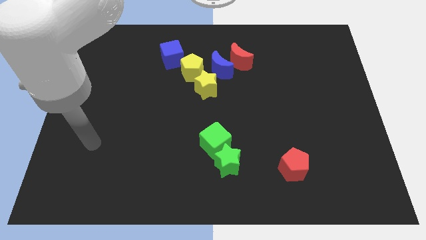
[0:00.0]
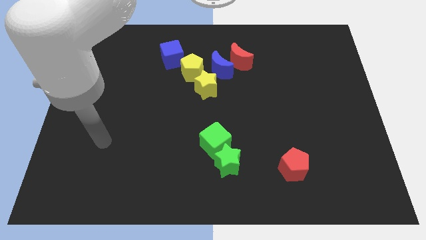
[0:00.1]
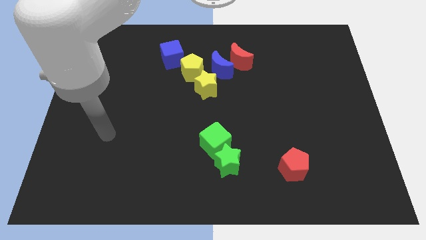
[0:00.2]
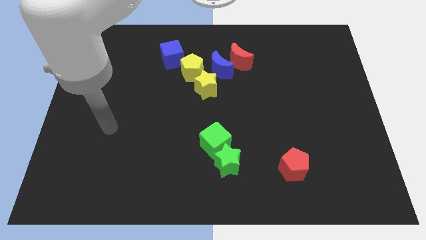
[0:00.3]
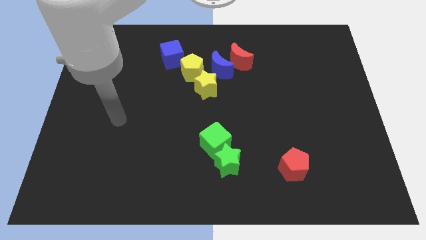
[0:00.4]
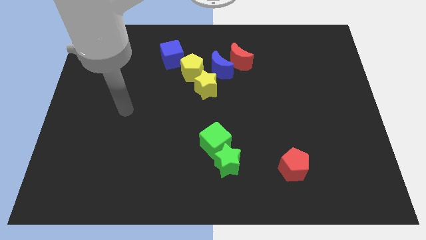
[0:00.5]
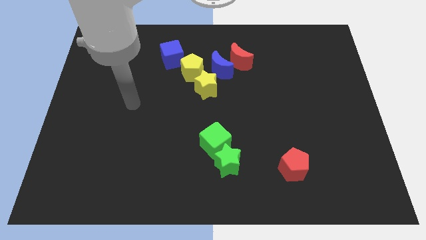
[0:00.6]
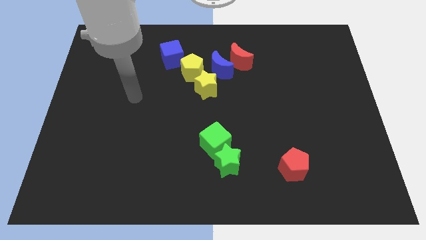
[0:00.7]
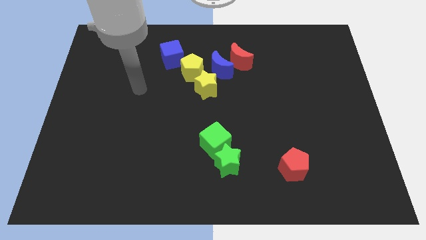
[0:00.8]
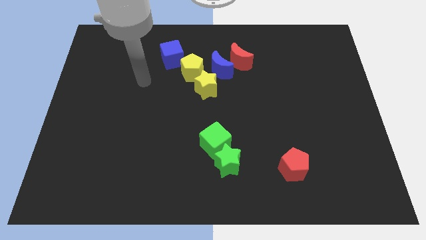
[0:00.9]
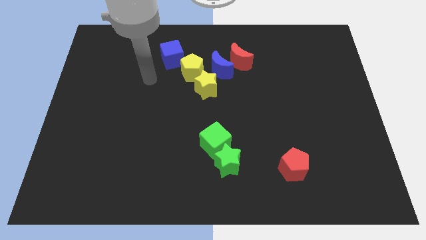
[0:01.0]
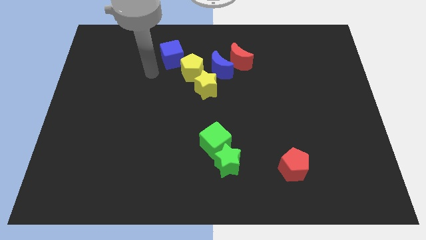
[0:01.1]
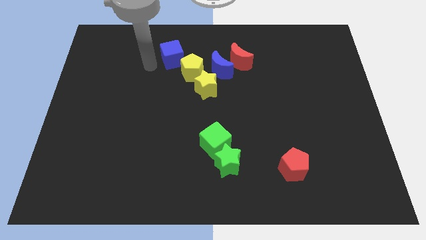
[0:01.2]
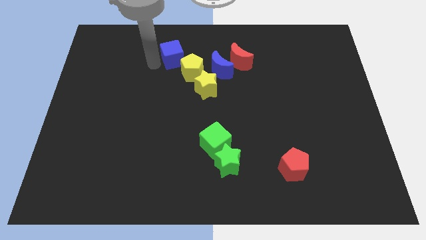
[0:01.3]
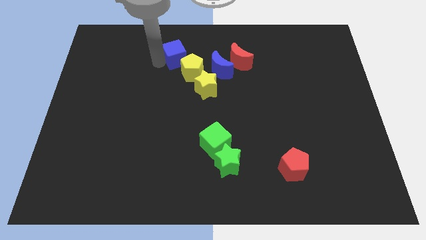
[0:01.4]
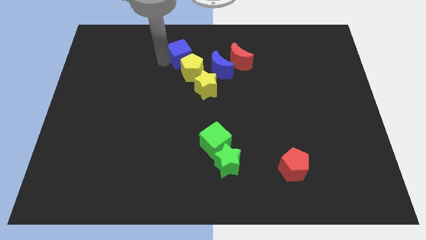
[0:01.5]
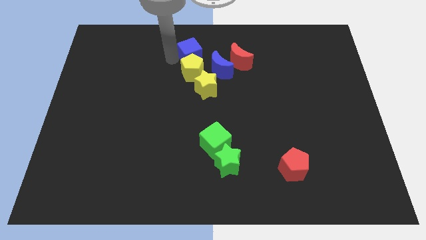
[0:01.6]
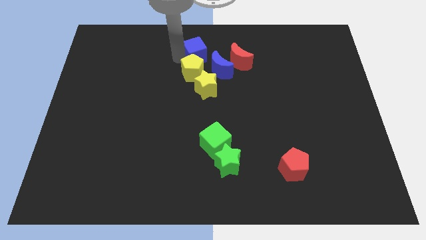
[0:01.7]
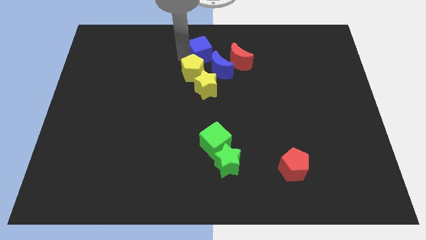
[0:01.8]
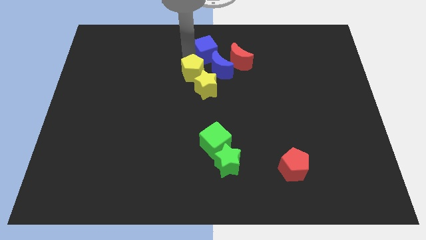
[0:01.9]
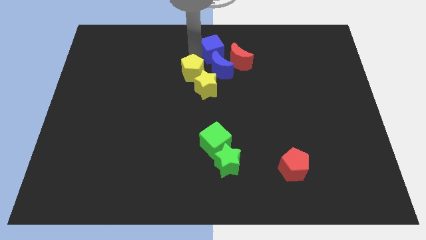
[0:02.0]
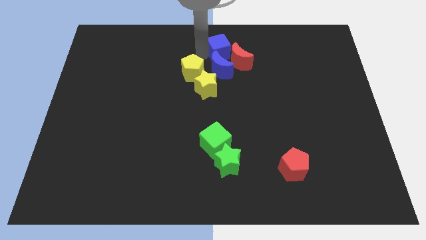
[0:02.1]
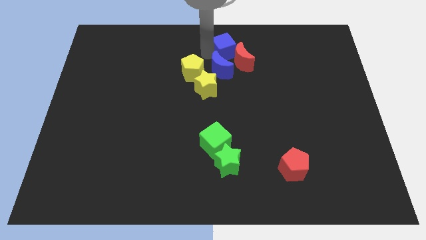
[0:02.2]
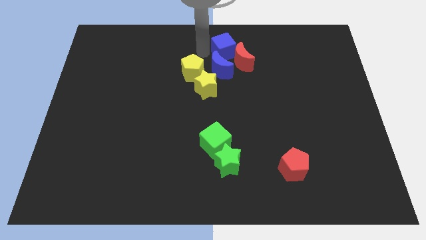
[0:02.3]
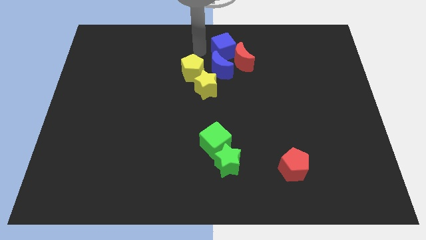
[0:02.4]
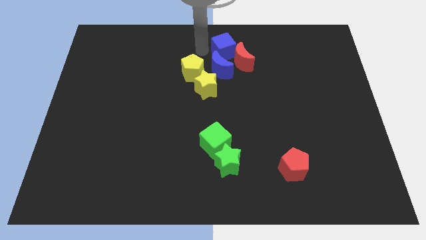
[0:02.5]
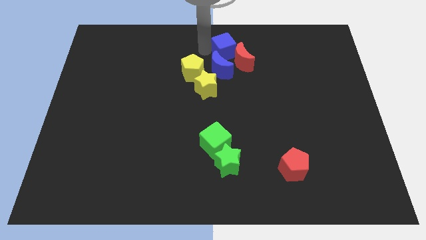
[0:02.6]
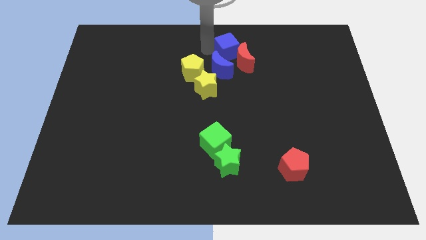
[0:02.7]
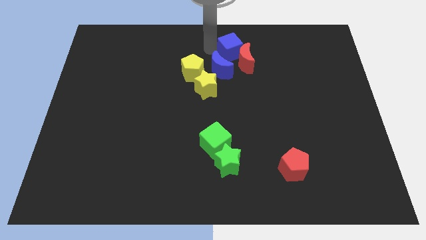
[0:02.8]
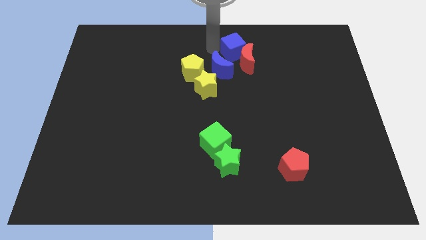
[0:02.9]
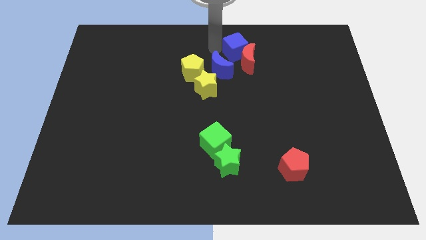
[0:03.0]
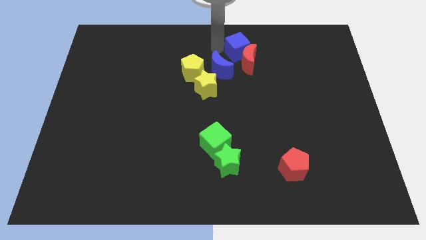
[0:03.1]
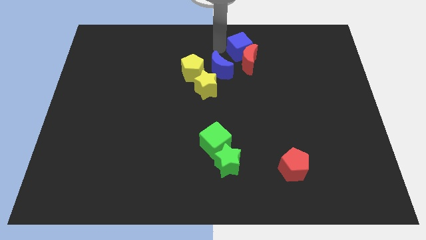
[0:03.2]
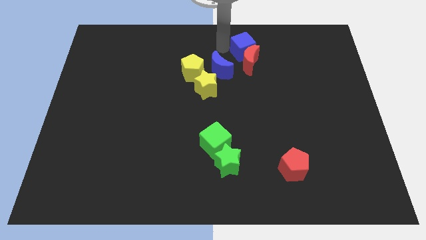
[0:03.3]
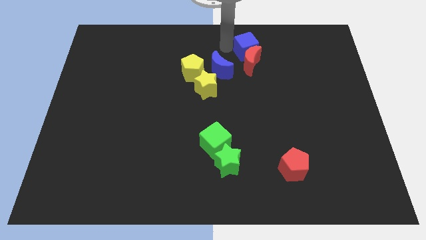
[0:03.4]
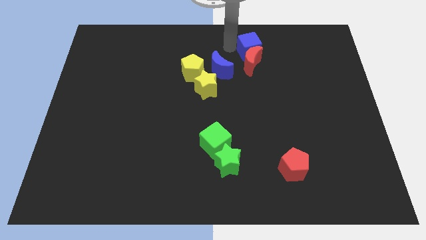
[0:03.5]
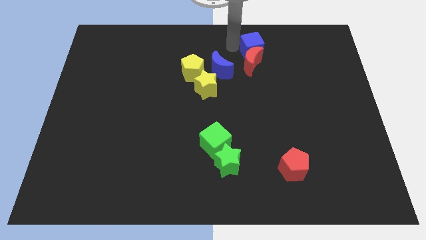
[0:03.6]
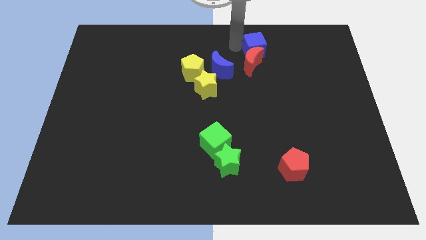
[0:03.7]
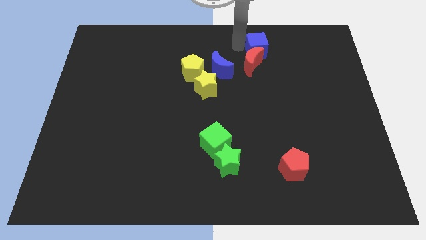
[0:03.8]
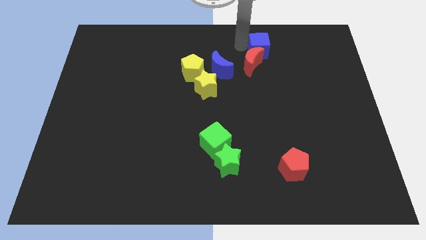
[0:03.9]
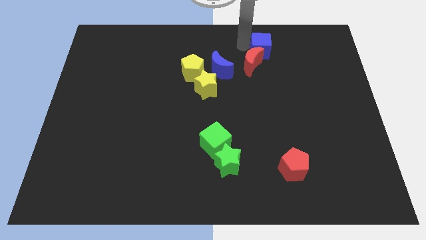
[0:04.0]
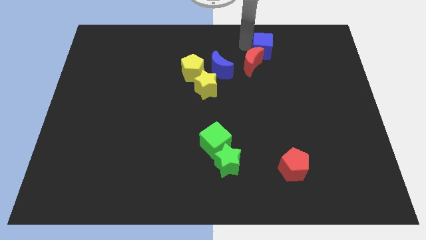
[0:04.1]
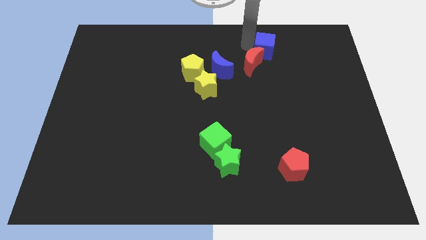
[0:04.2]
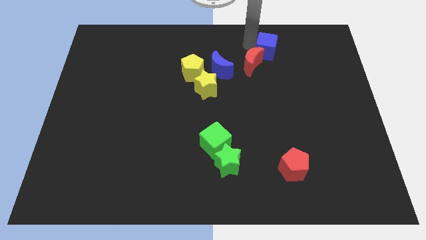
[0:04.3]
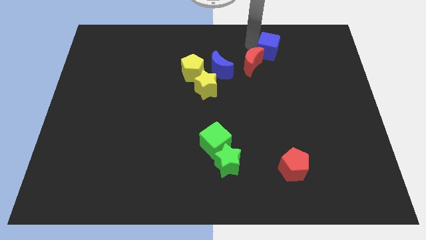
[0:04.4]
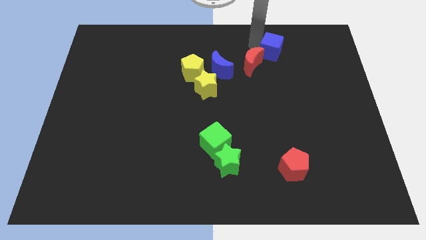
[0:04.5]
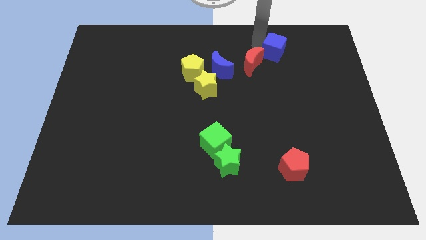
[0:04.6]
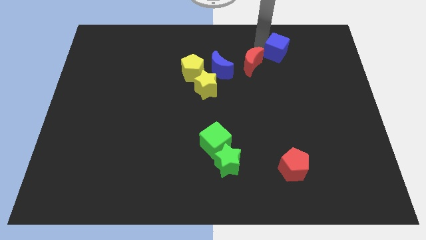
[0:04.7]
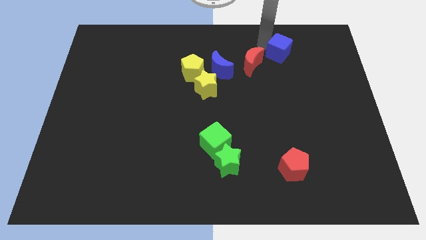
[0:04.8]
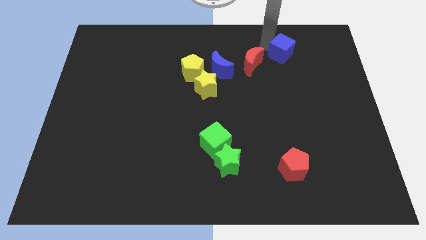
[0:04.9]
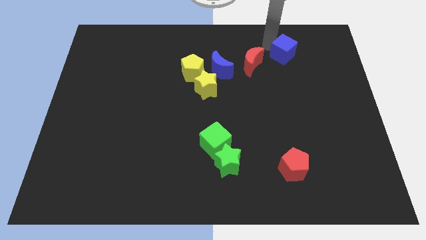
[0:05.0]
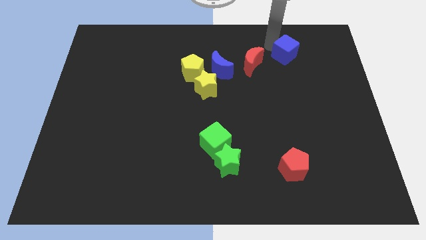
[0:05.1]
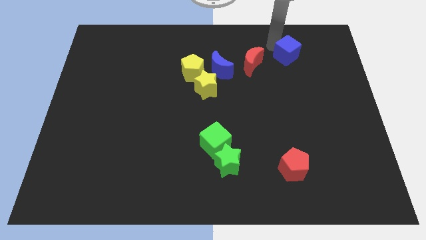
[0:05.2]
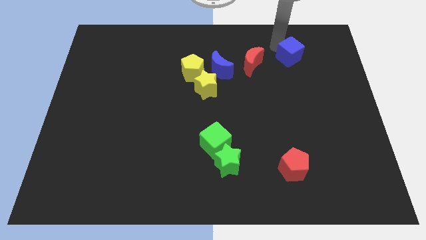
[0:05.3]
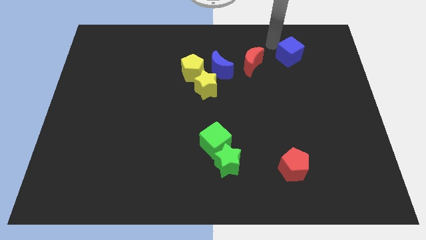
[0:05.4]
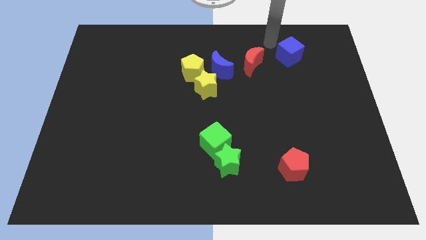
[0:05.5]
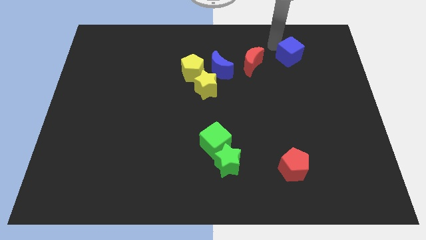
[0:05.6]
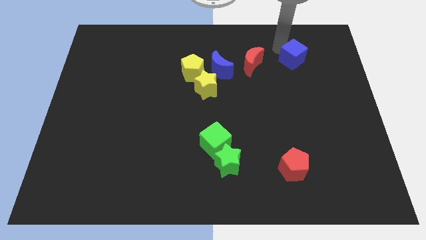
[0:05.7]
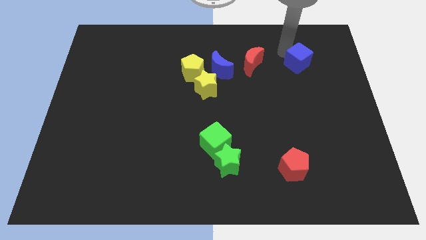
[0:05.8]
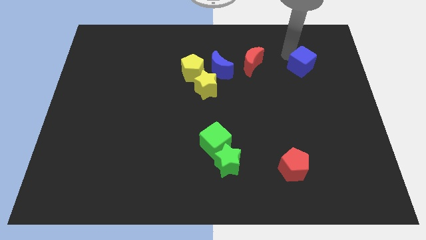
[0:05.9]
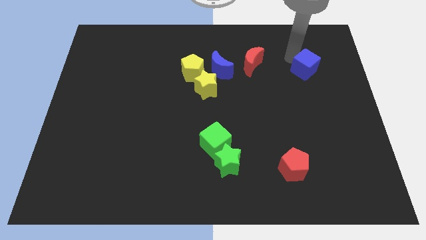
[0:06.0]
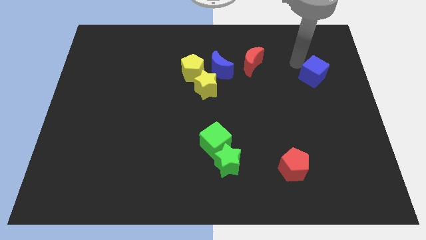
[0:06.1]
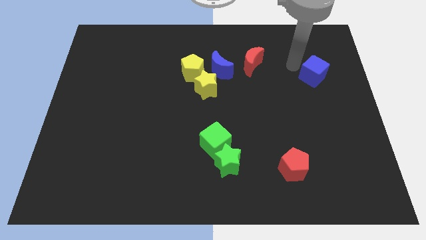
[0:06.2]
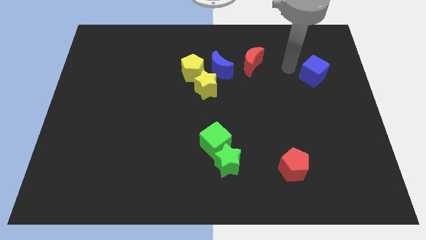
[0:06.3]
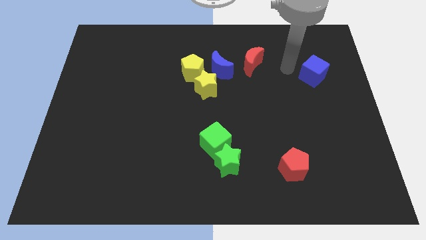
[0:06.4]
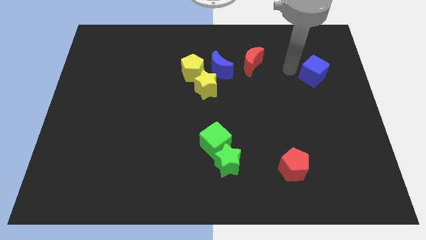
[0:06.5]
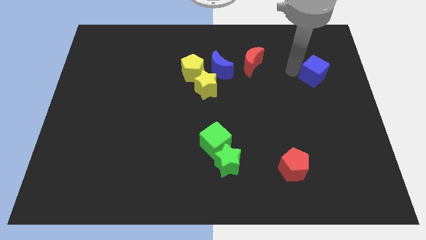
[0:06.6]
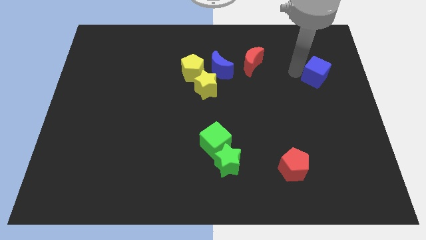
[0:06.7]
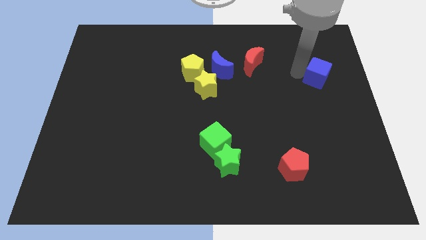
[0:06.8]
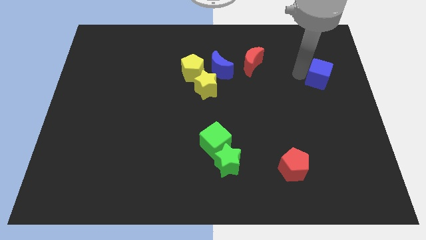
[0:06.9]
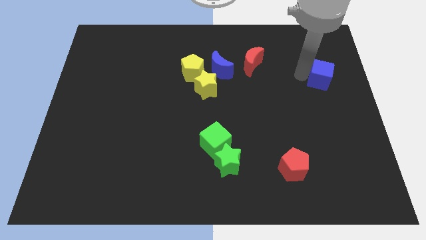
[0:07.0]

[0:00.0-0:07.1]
push the blue cube to the center right
